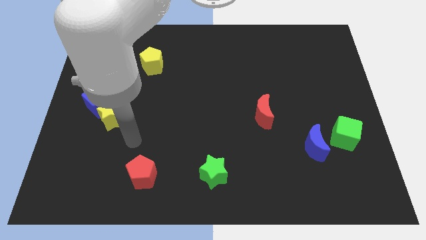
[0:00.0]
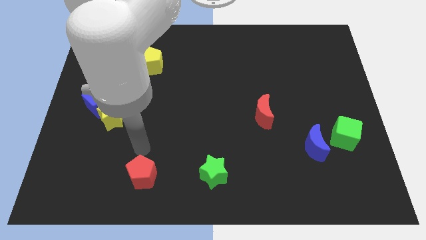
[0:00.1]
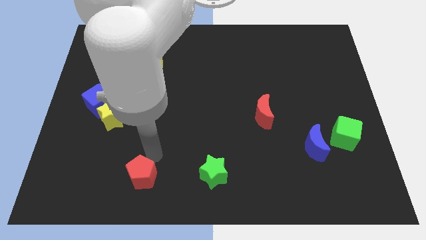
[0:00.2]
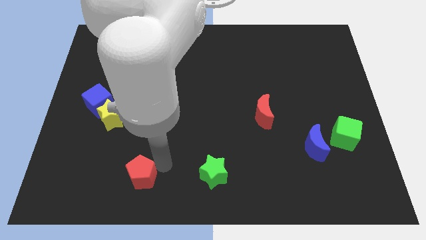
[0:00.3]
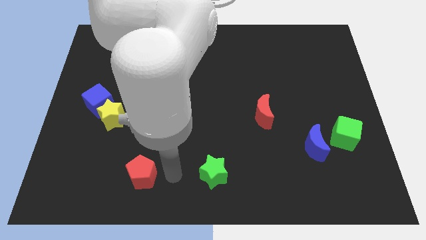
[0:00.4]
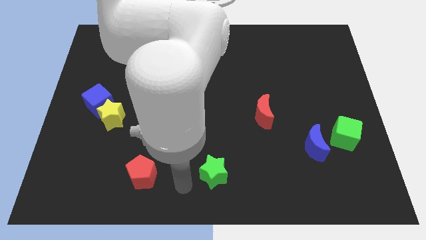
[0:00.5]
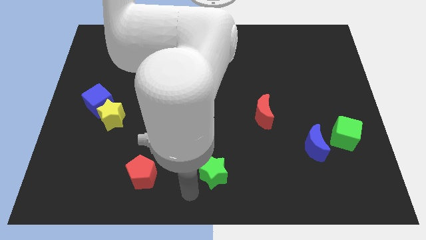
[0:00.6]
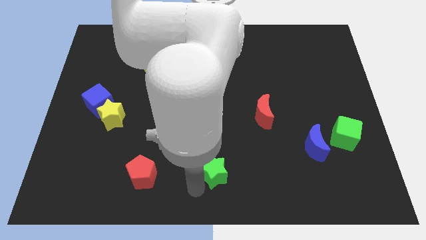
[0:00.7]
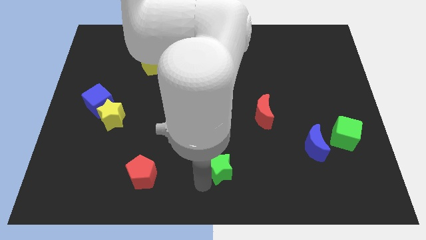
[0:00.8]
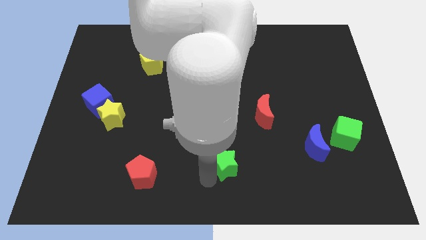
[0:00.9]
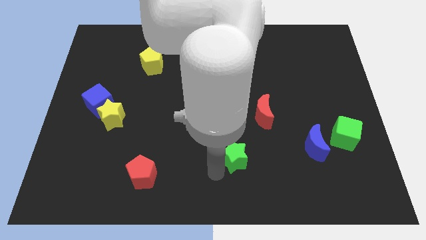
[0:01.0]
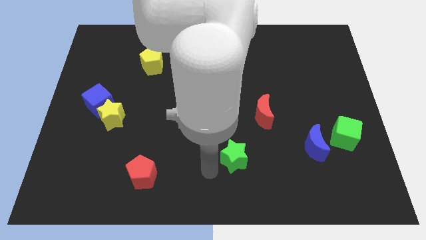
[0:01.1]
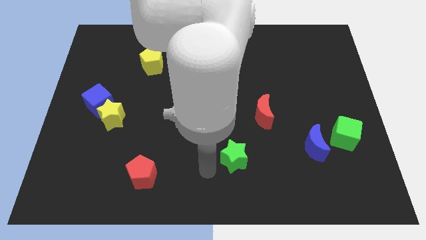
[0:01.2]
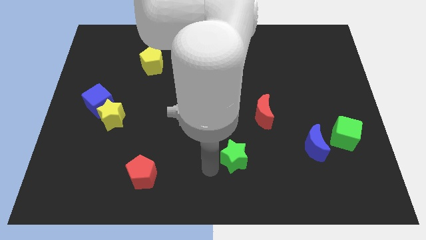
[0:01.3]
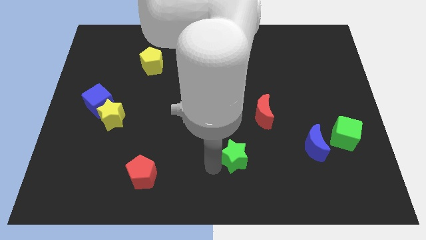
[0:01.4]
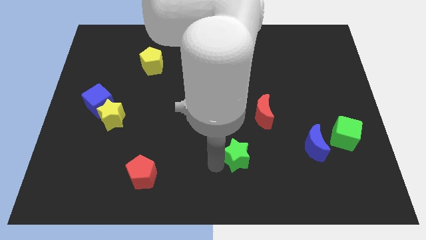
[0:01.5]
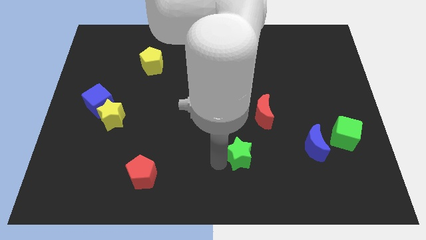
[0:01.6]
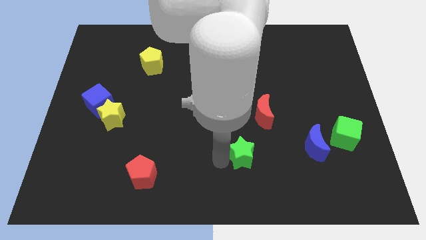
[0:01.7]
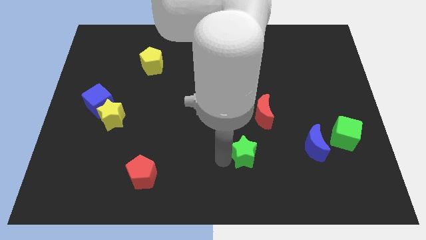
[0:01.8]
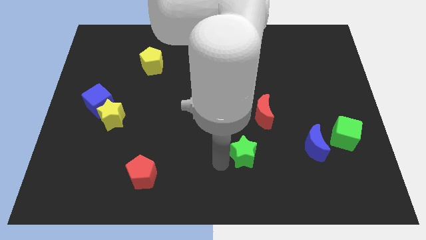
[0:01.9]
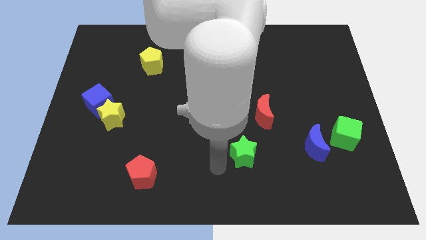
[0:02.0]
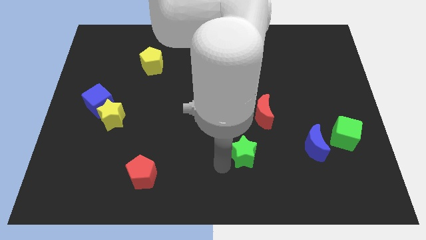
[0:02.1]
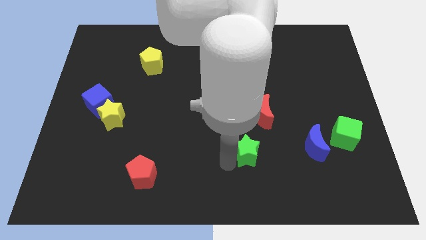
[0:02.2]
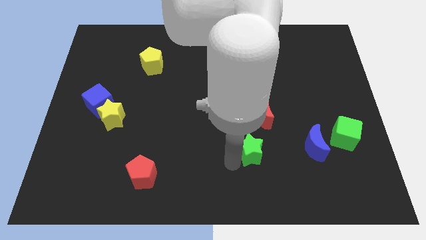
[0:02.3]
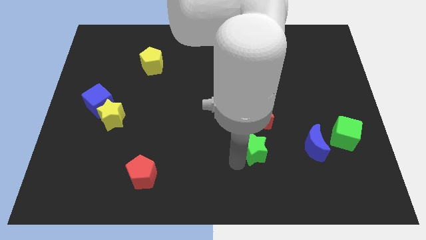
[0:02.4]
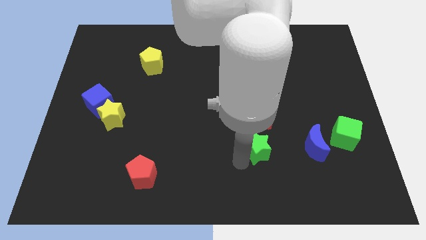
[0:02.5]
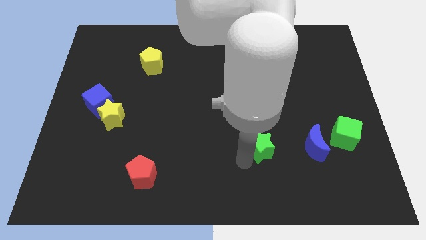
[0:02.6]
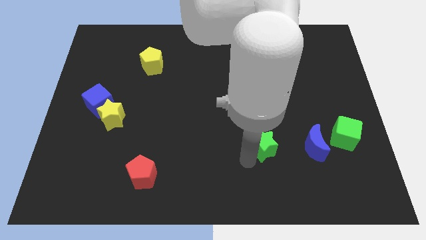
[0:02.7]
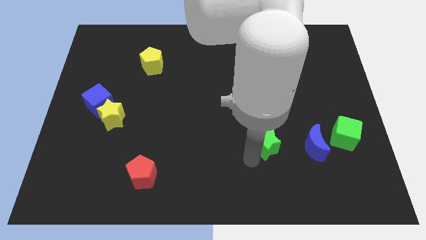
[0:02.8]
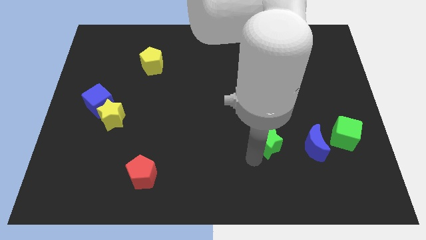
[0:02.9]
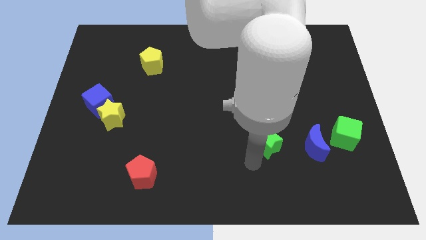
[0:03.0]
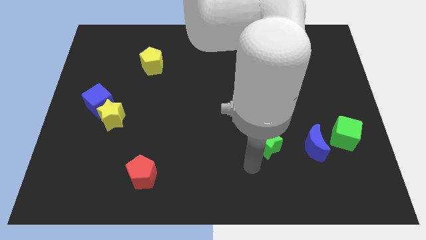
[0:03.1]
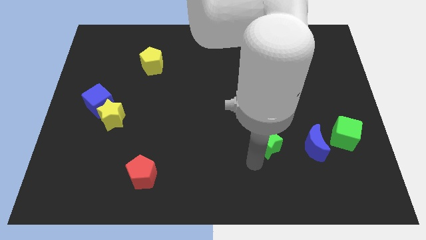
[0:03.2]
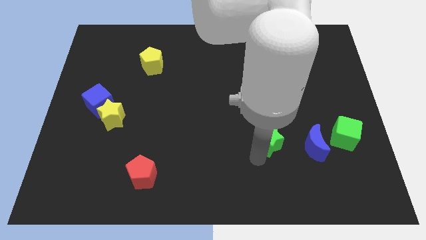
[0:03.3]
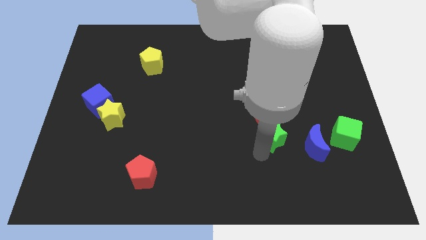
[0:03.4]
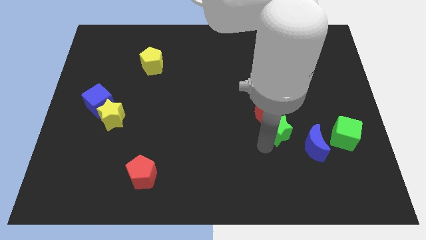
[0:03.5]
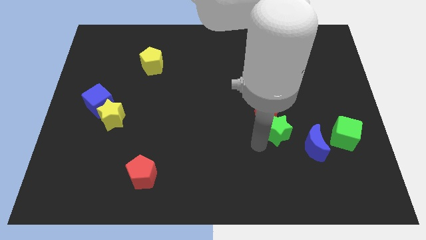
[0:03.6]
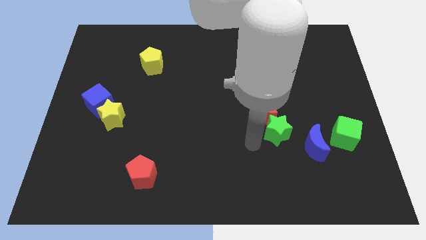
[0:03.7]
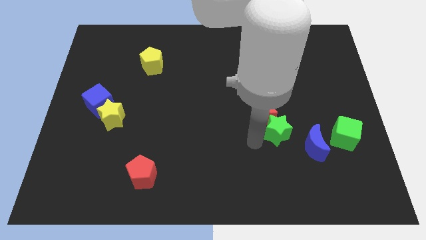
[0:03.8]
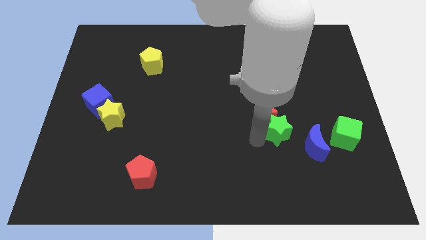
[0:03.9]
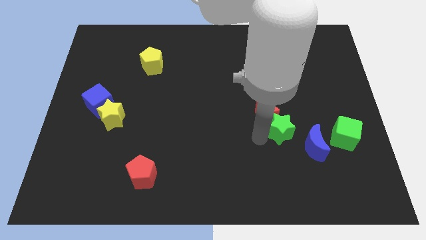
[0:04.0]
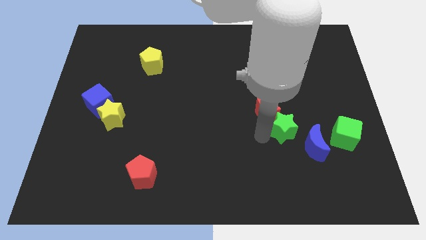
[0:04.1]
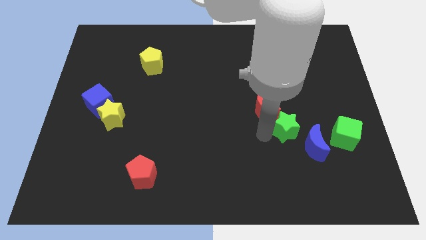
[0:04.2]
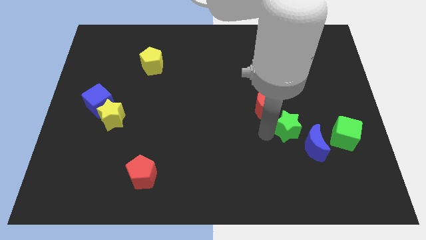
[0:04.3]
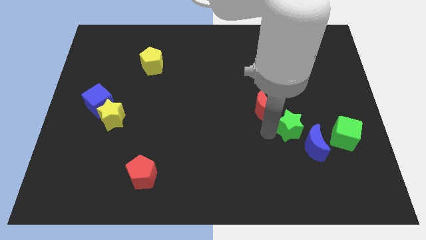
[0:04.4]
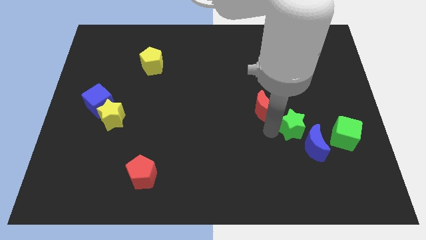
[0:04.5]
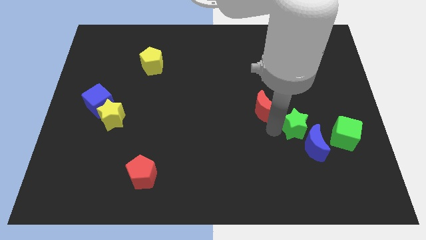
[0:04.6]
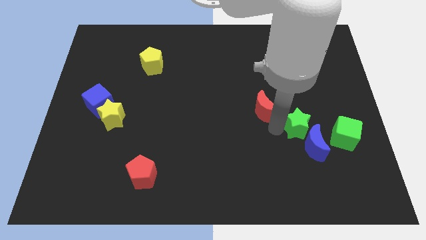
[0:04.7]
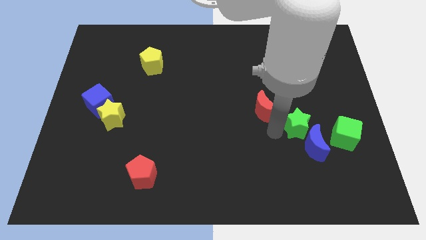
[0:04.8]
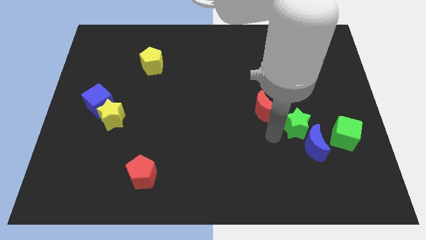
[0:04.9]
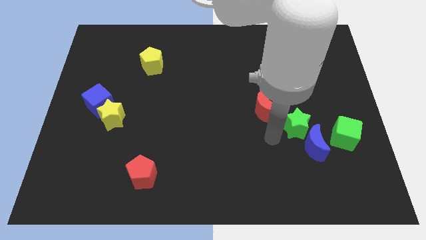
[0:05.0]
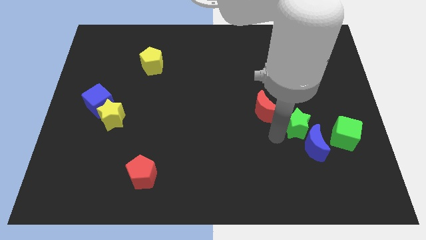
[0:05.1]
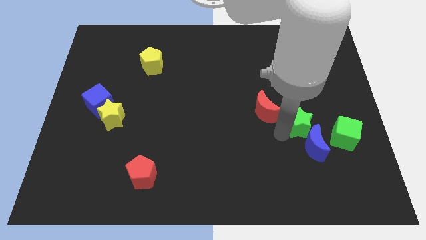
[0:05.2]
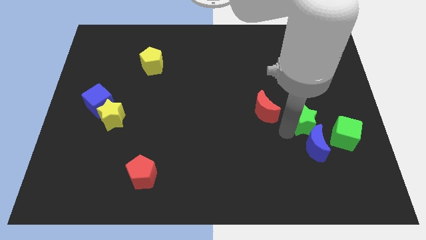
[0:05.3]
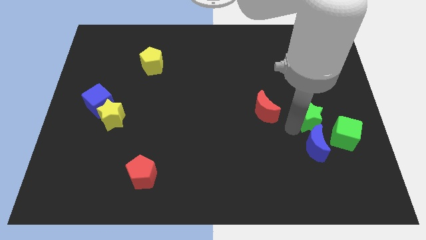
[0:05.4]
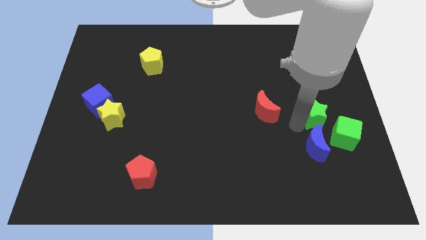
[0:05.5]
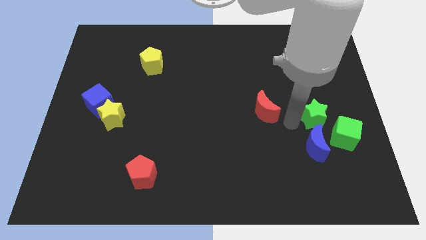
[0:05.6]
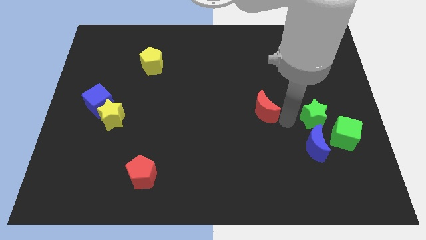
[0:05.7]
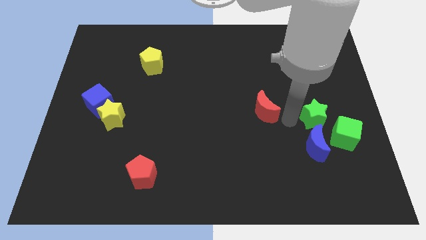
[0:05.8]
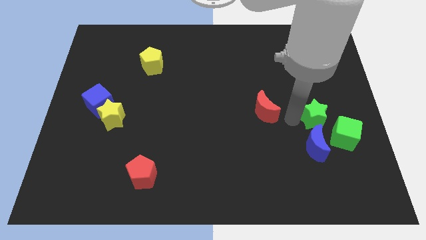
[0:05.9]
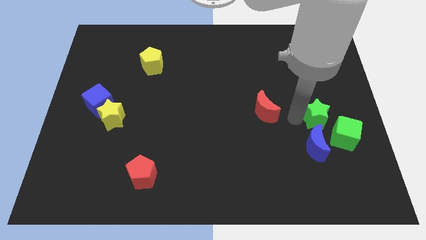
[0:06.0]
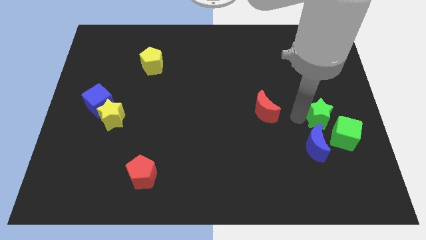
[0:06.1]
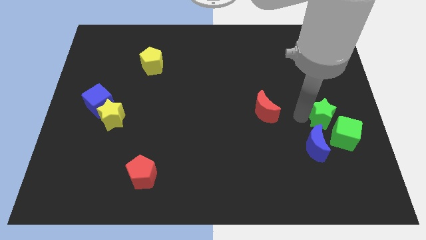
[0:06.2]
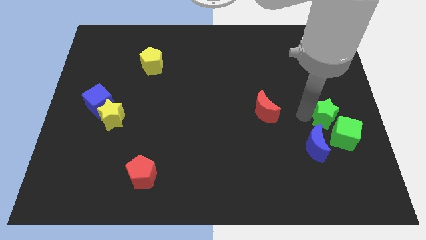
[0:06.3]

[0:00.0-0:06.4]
slide the green star to the center right
